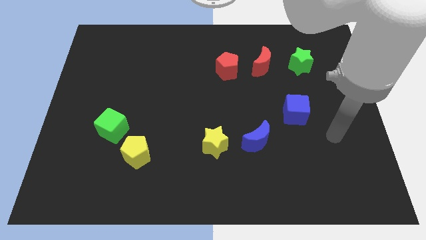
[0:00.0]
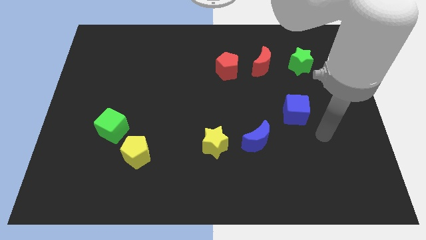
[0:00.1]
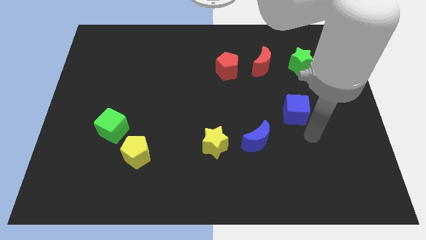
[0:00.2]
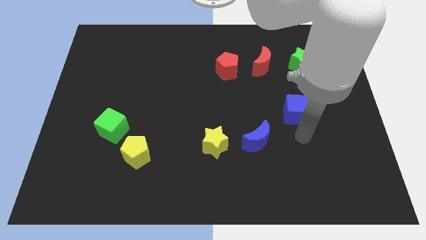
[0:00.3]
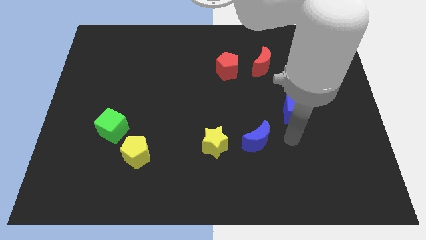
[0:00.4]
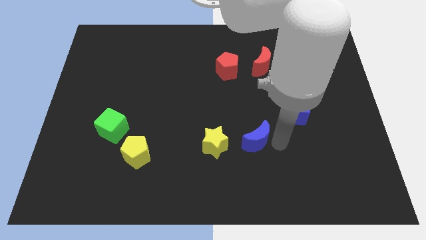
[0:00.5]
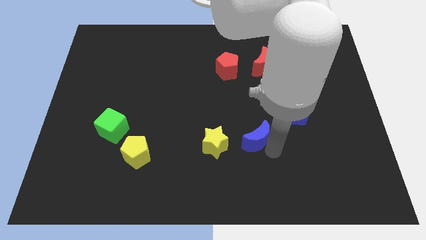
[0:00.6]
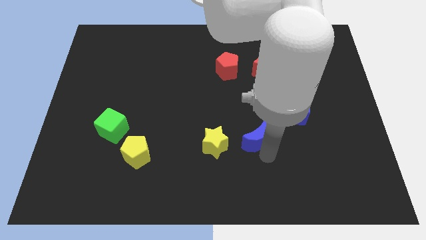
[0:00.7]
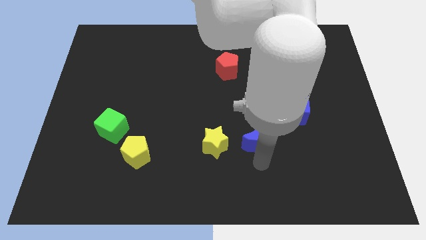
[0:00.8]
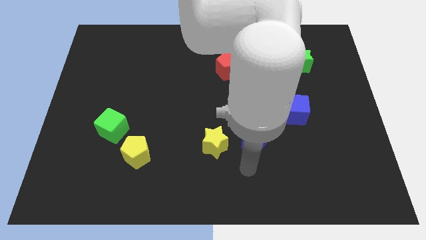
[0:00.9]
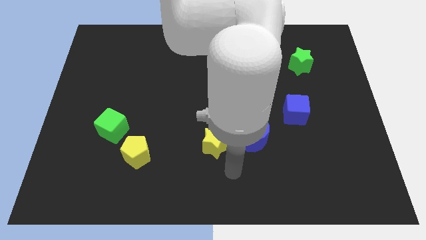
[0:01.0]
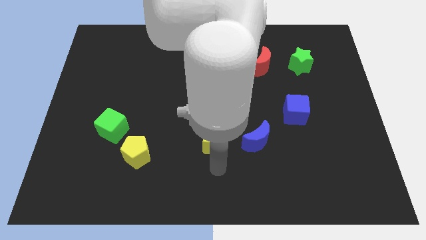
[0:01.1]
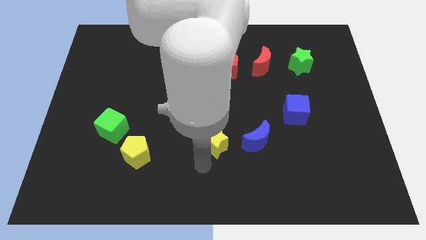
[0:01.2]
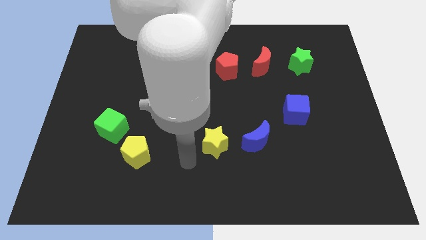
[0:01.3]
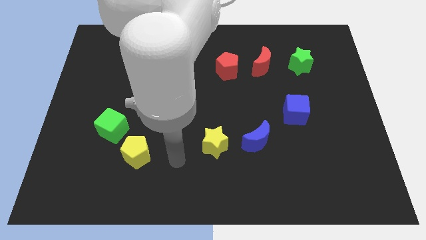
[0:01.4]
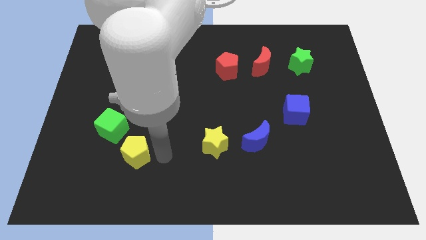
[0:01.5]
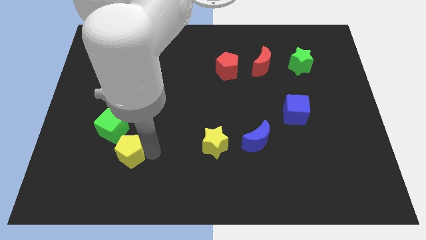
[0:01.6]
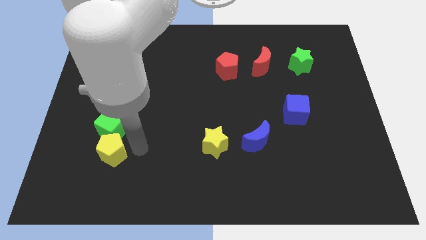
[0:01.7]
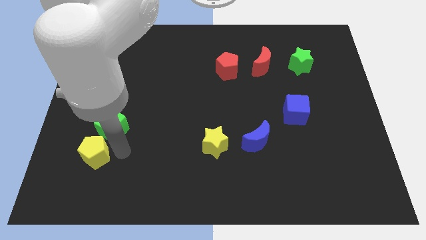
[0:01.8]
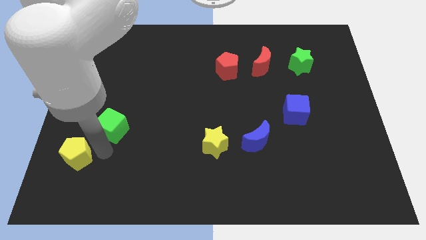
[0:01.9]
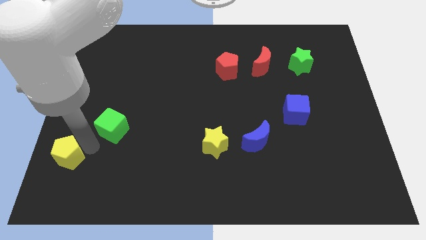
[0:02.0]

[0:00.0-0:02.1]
pull the green cube apart from the yellow pentagon

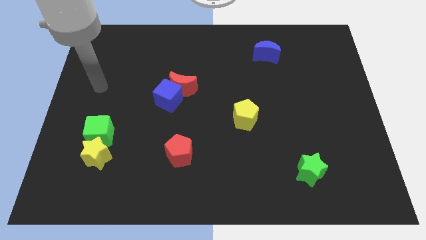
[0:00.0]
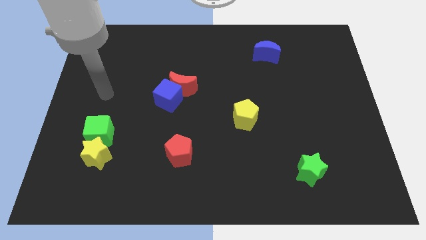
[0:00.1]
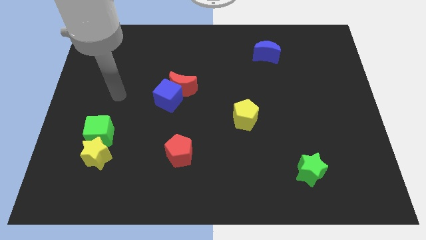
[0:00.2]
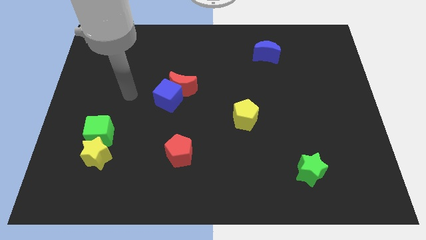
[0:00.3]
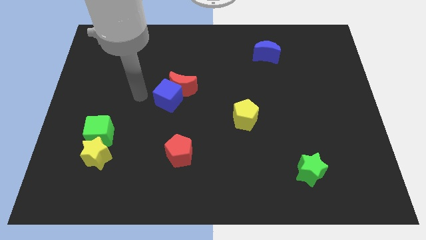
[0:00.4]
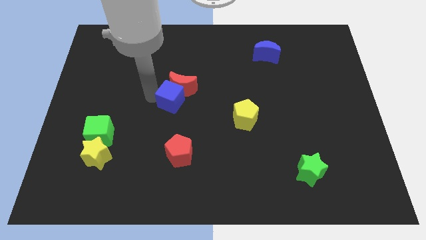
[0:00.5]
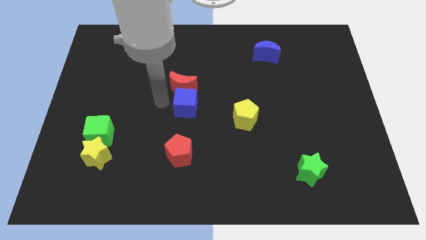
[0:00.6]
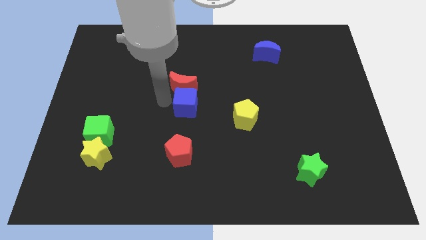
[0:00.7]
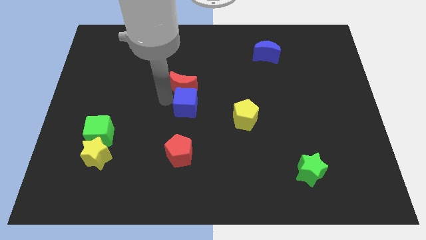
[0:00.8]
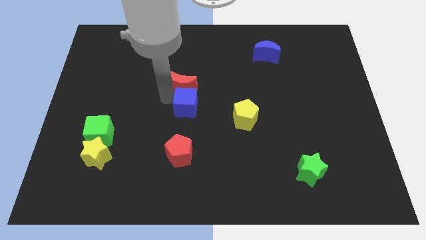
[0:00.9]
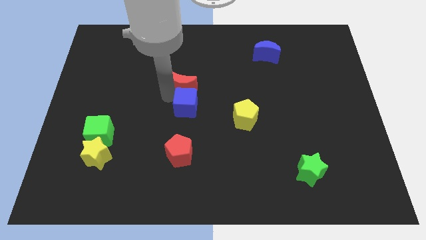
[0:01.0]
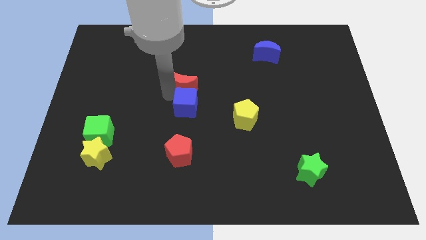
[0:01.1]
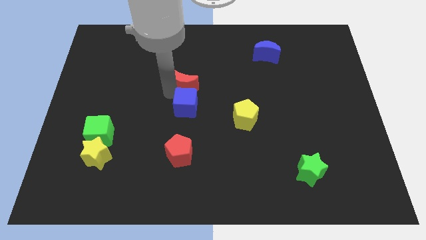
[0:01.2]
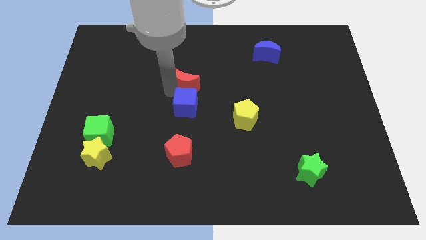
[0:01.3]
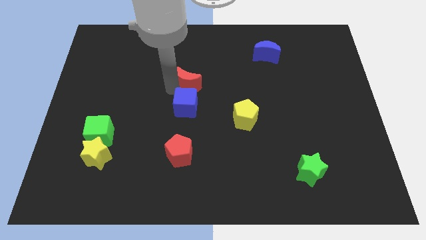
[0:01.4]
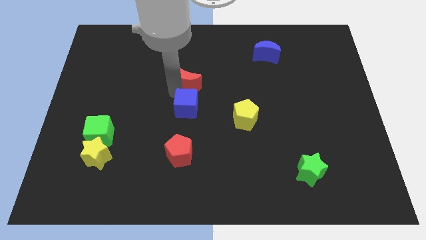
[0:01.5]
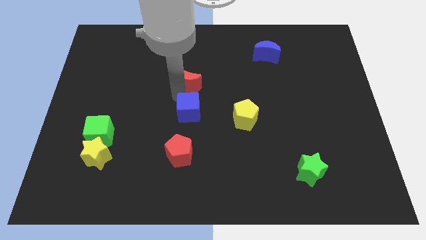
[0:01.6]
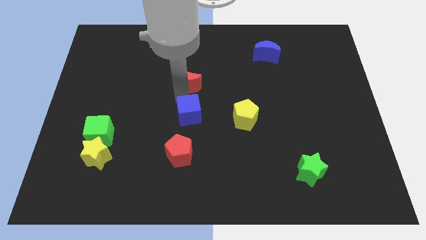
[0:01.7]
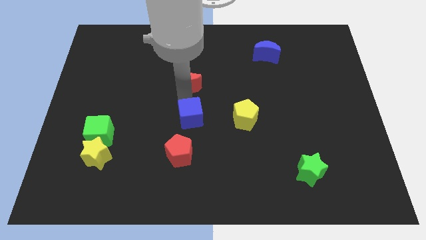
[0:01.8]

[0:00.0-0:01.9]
move the red moon away from the blue cube

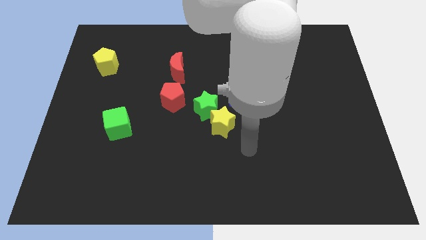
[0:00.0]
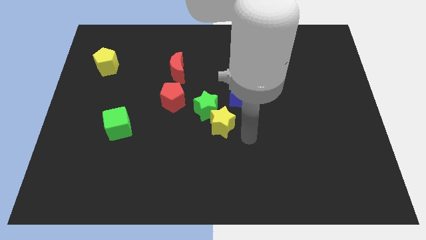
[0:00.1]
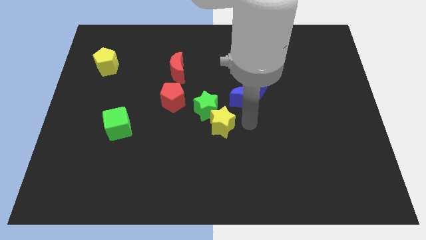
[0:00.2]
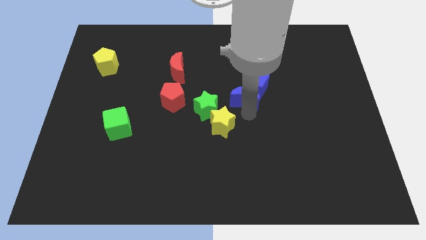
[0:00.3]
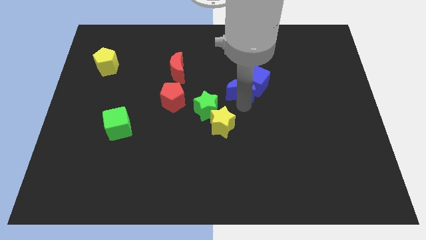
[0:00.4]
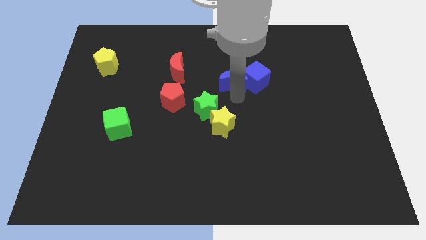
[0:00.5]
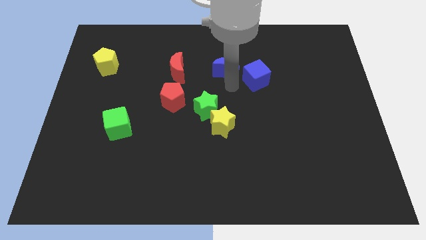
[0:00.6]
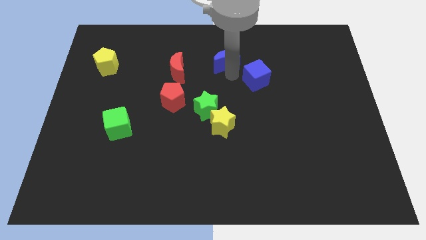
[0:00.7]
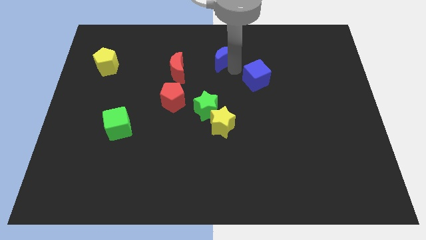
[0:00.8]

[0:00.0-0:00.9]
pull the blue cube apart from the blue moon

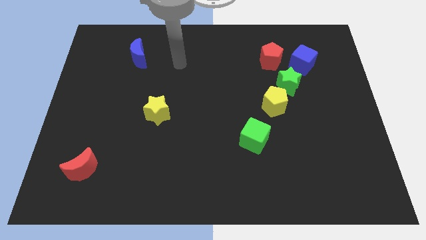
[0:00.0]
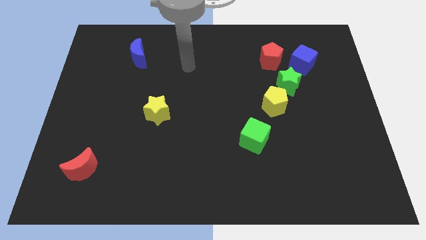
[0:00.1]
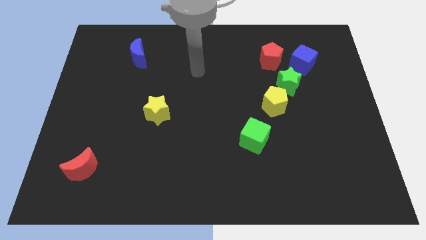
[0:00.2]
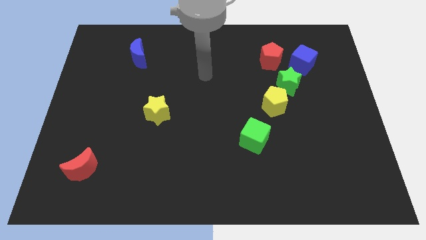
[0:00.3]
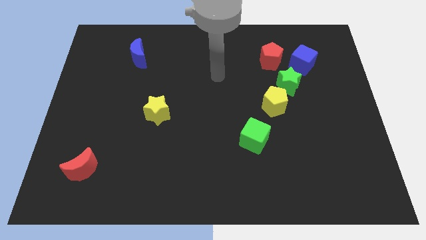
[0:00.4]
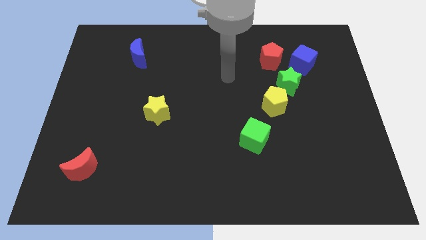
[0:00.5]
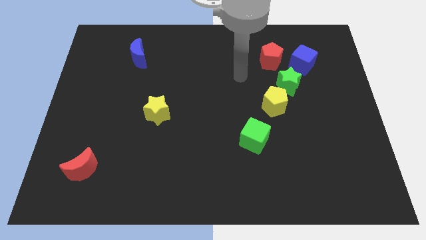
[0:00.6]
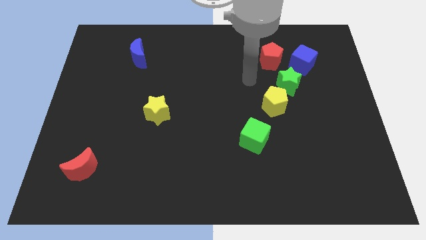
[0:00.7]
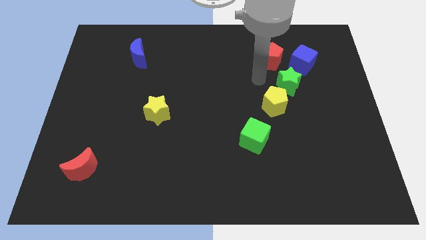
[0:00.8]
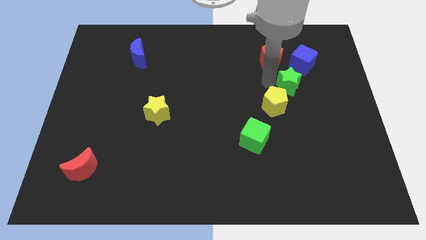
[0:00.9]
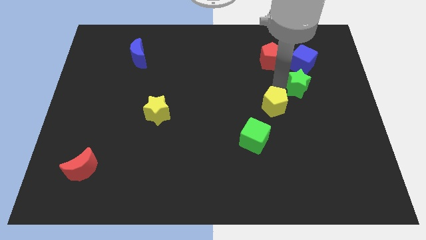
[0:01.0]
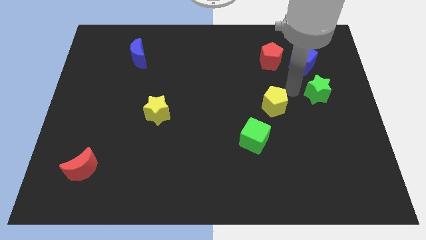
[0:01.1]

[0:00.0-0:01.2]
move the yellow pentagon away from the green star

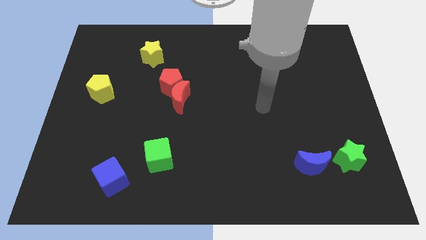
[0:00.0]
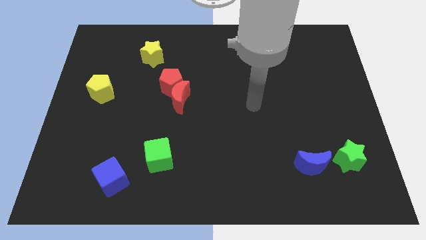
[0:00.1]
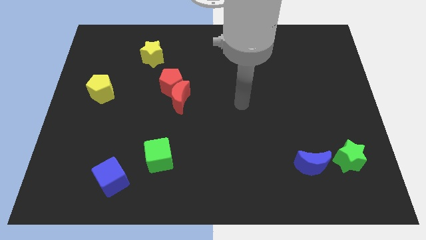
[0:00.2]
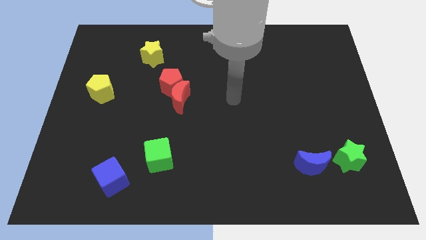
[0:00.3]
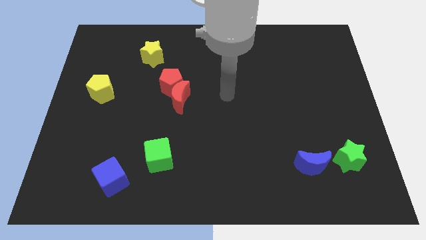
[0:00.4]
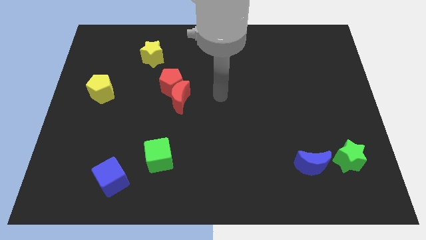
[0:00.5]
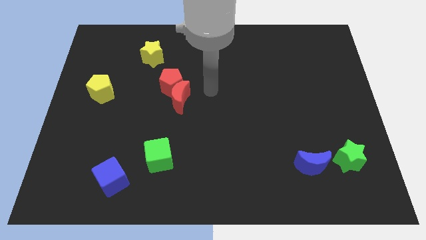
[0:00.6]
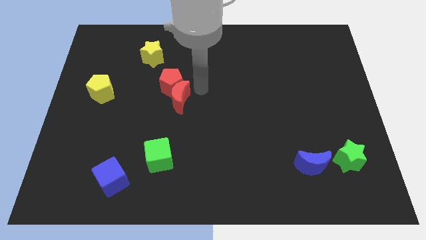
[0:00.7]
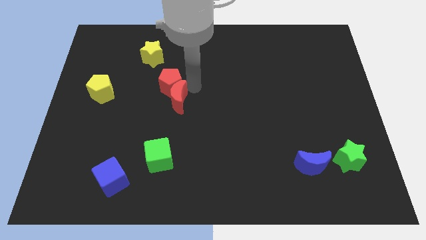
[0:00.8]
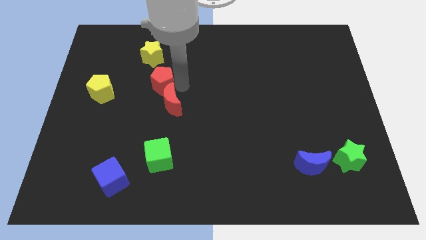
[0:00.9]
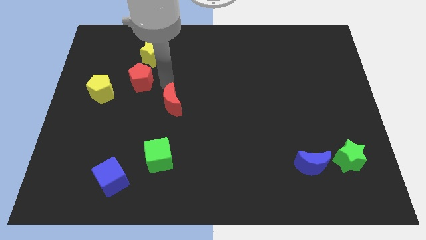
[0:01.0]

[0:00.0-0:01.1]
pull the red moon apart from the red pentagon

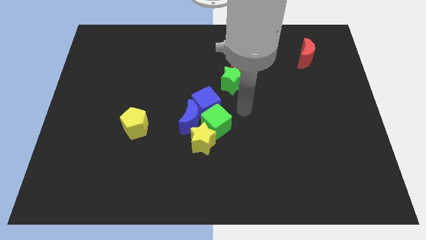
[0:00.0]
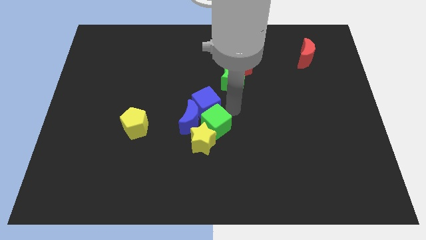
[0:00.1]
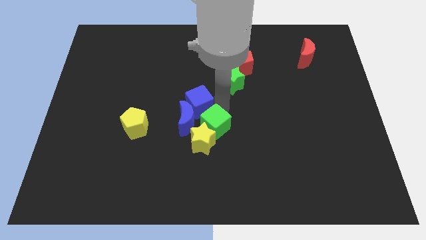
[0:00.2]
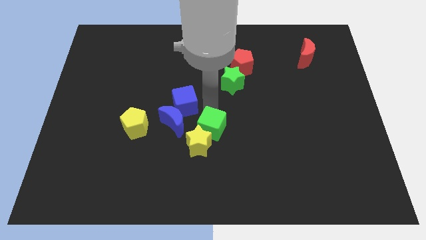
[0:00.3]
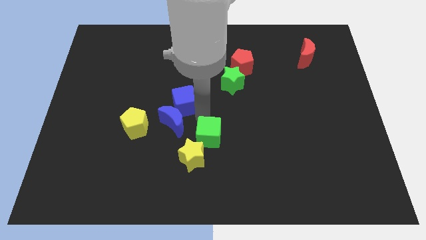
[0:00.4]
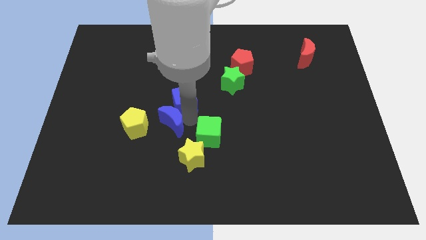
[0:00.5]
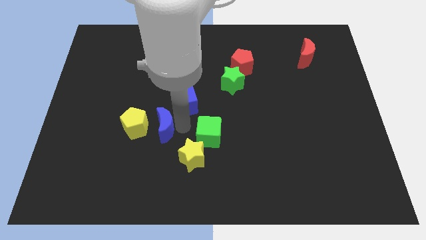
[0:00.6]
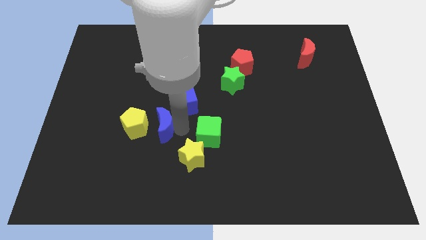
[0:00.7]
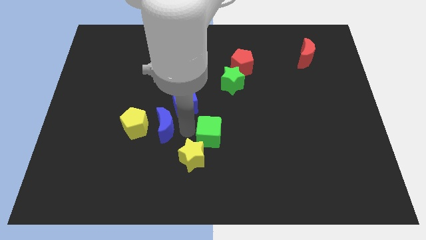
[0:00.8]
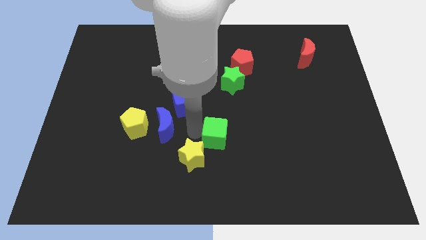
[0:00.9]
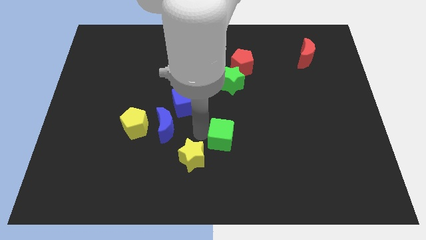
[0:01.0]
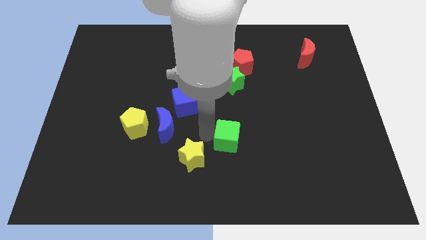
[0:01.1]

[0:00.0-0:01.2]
pull the green cube apart from the yellow star, blue cube, and blue moon

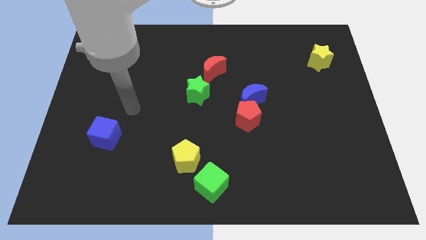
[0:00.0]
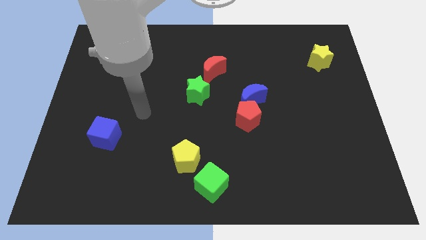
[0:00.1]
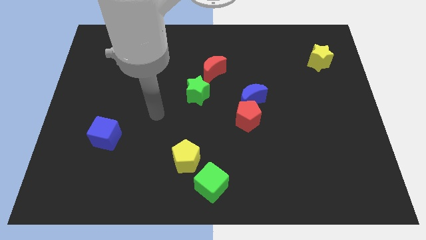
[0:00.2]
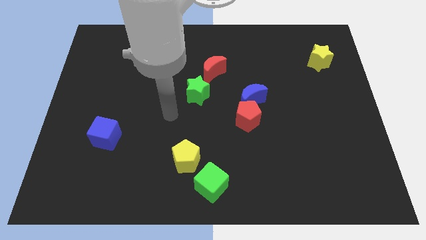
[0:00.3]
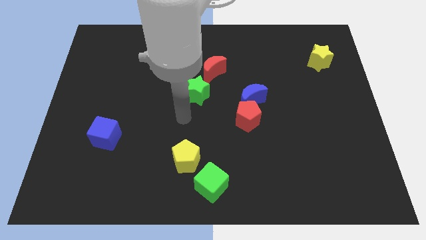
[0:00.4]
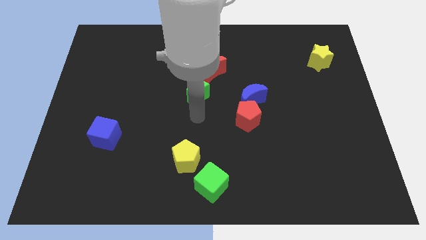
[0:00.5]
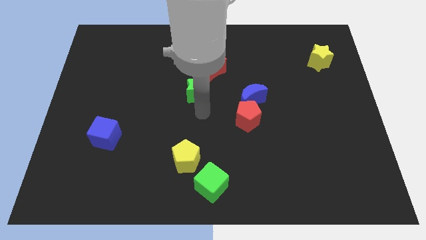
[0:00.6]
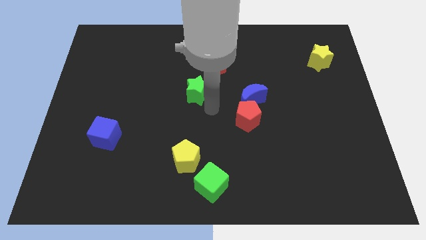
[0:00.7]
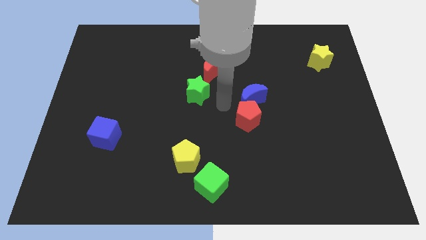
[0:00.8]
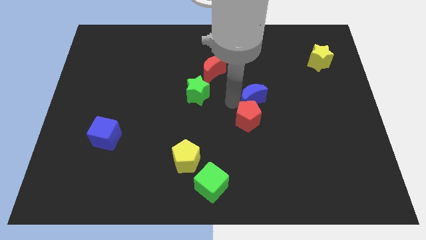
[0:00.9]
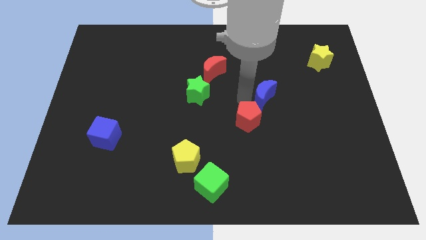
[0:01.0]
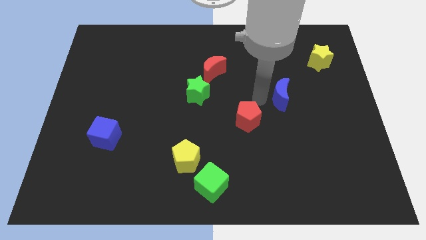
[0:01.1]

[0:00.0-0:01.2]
pull the red pentagon apart from the blue moon
